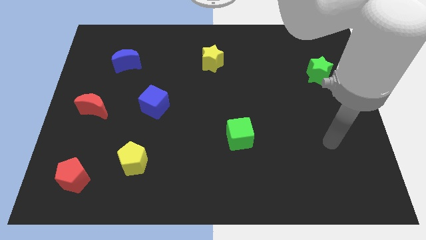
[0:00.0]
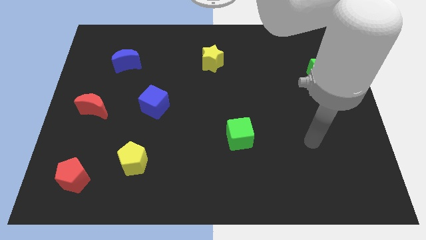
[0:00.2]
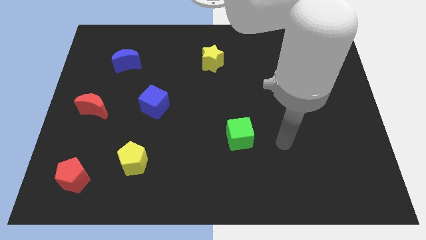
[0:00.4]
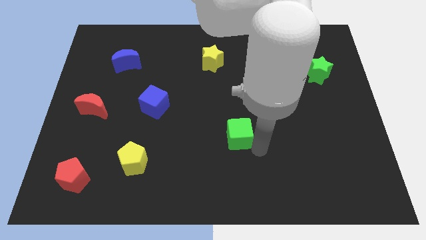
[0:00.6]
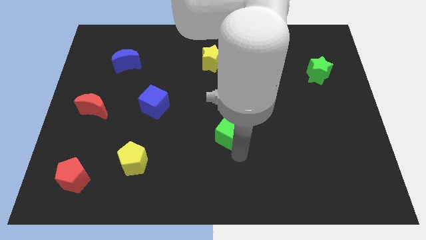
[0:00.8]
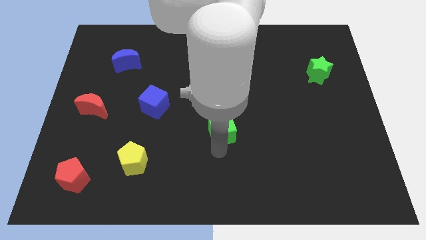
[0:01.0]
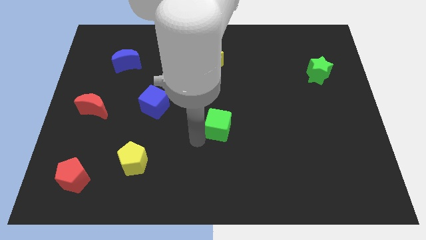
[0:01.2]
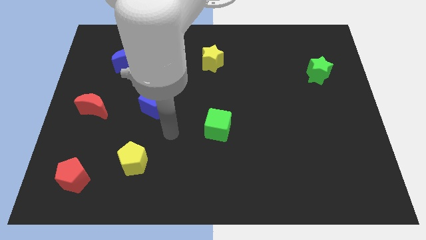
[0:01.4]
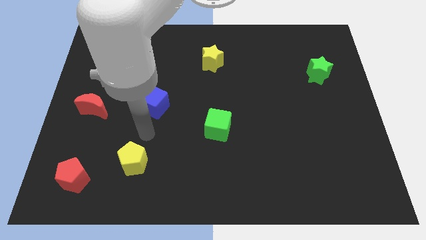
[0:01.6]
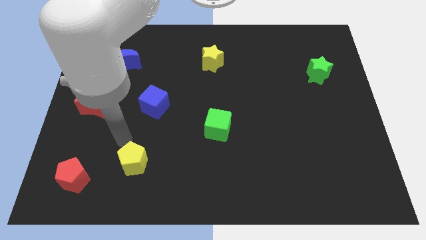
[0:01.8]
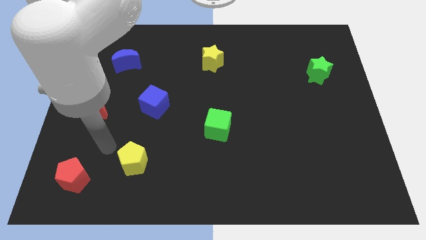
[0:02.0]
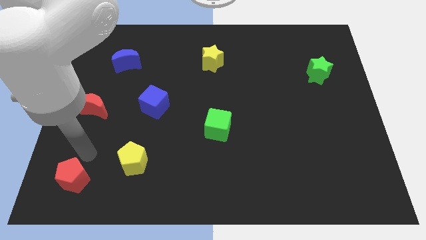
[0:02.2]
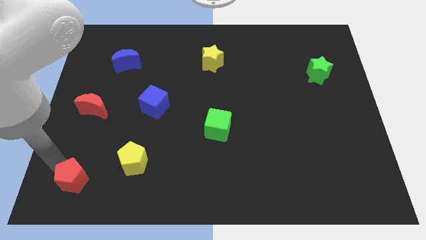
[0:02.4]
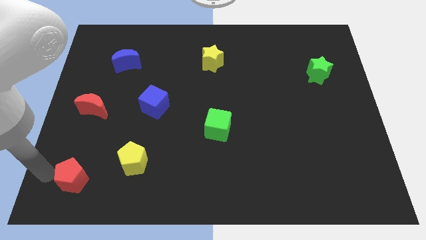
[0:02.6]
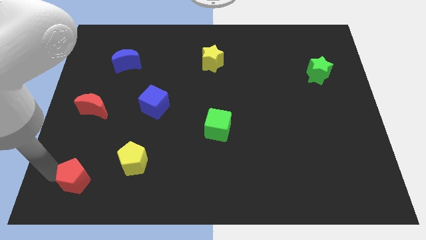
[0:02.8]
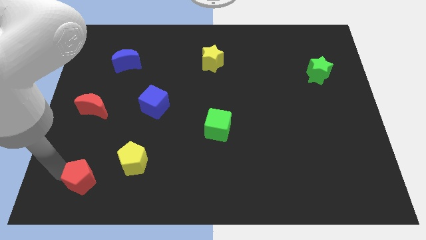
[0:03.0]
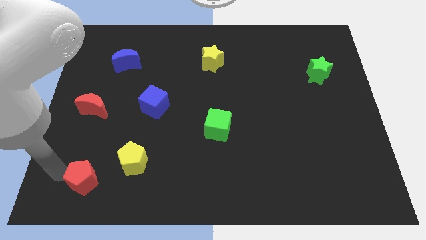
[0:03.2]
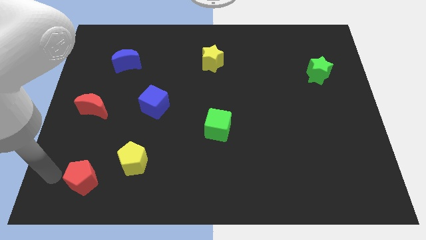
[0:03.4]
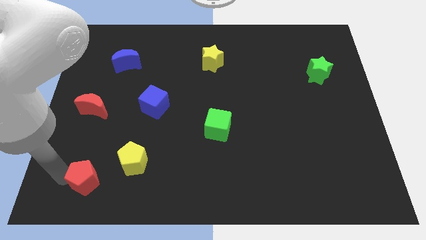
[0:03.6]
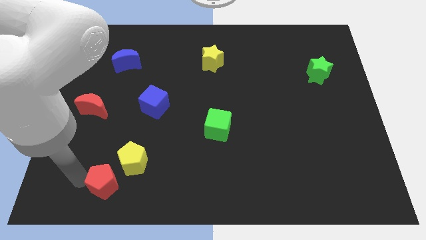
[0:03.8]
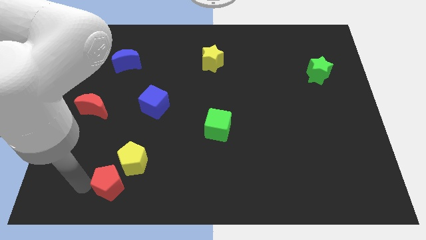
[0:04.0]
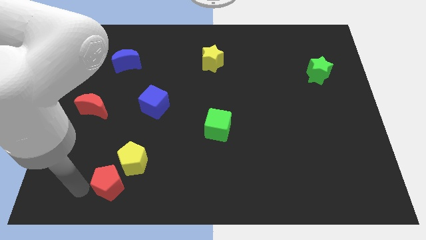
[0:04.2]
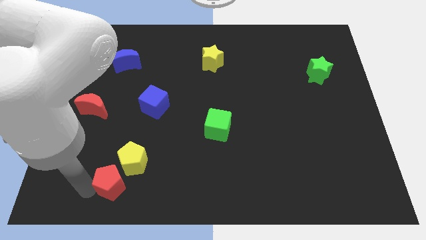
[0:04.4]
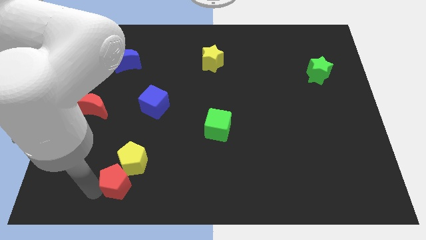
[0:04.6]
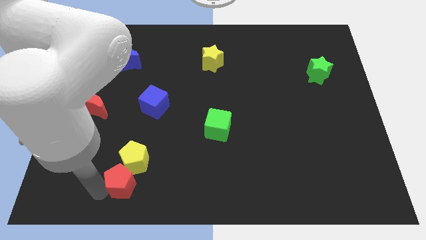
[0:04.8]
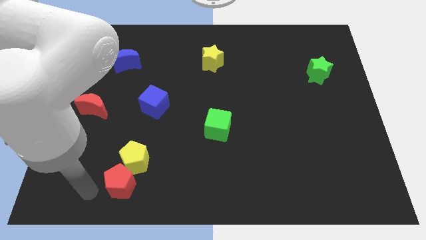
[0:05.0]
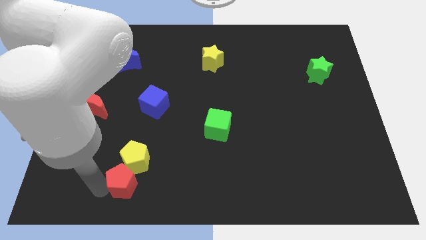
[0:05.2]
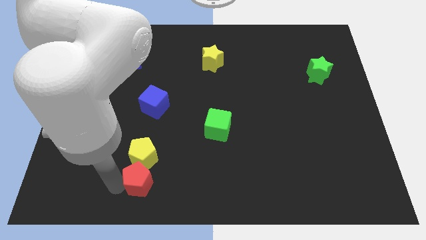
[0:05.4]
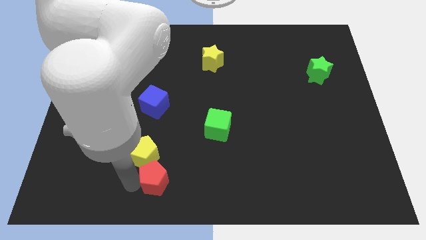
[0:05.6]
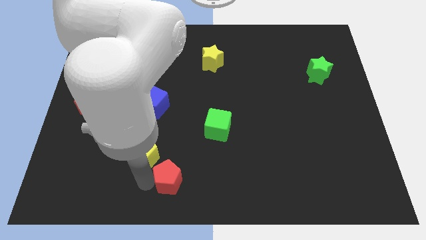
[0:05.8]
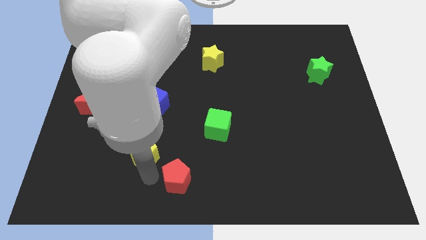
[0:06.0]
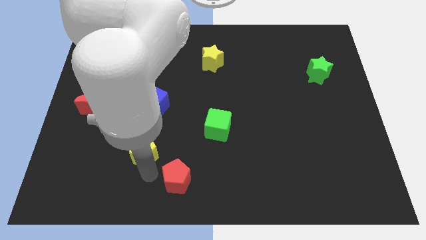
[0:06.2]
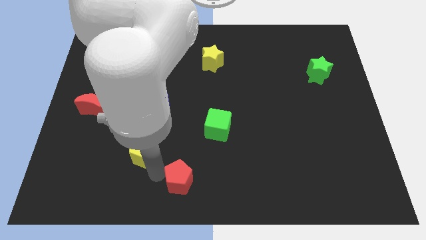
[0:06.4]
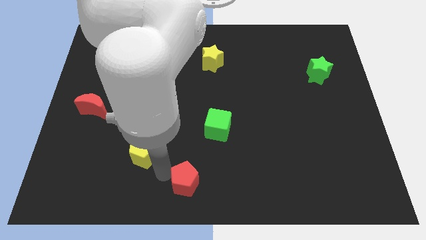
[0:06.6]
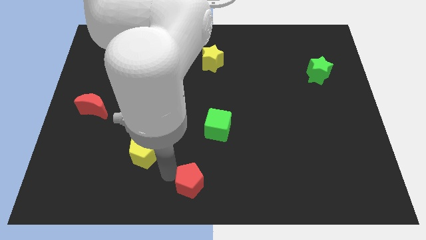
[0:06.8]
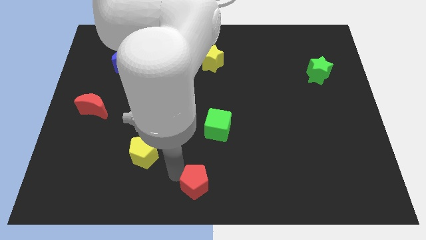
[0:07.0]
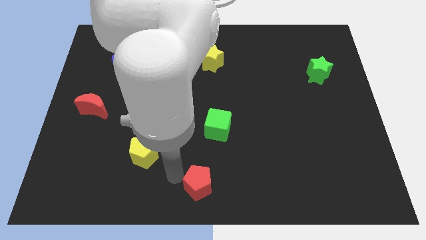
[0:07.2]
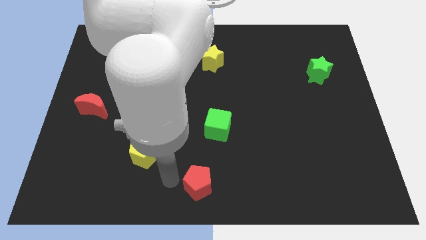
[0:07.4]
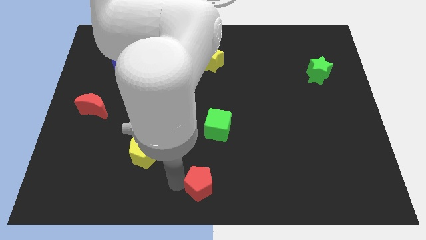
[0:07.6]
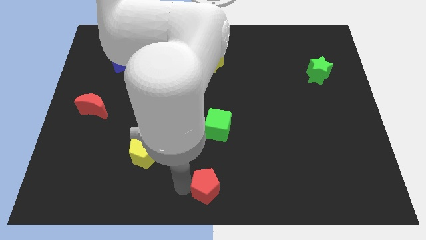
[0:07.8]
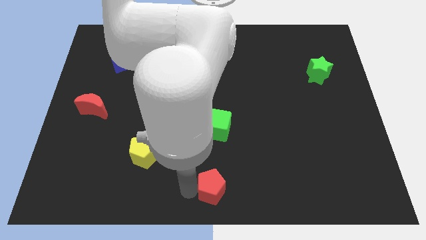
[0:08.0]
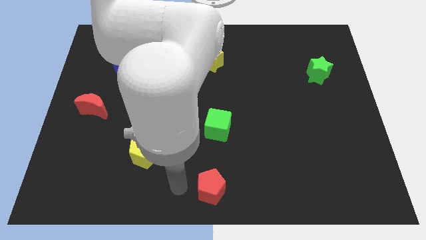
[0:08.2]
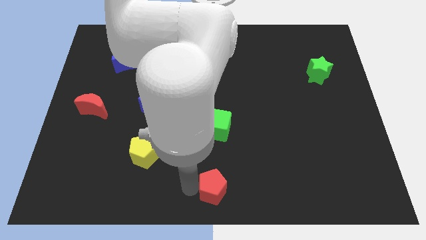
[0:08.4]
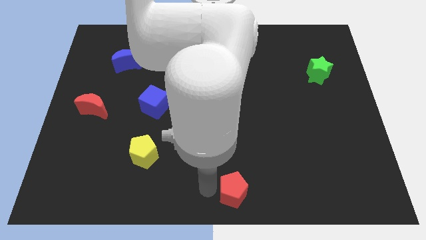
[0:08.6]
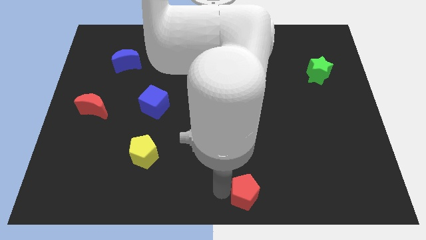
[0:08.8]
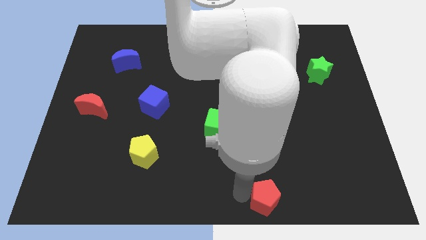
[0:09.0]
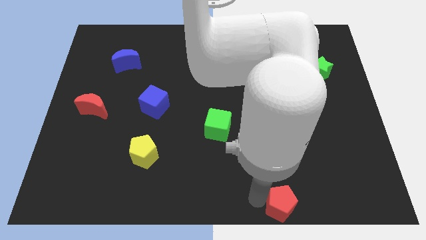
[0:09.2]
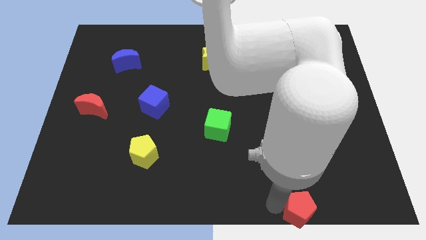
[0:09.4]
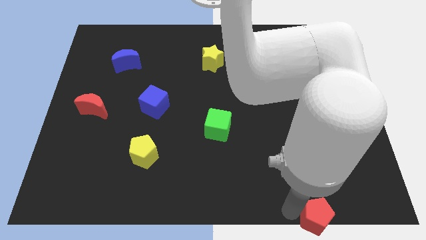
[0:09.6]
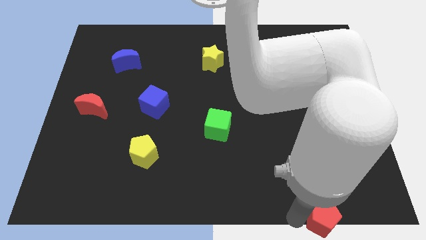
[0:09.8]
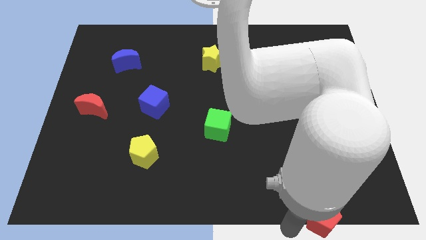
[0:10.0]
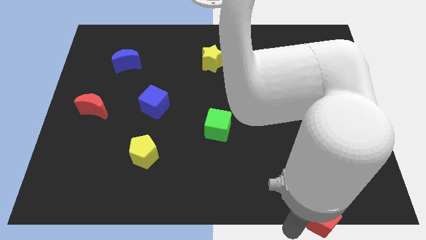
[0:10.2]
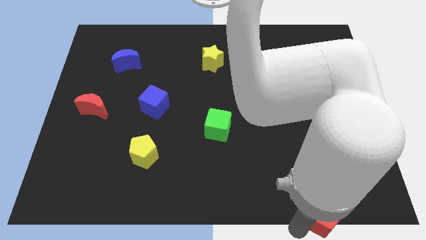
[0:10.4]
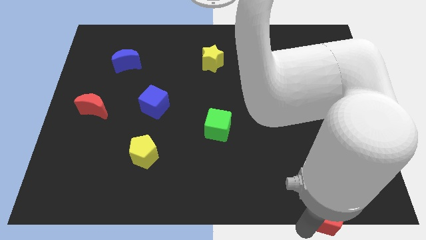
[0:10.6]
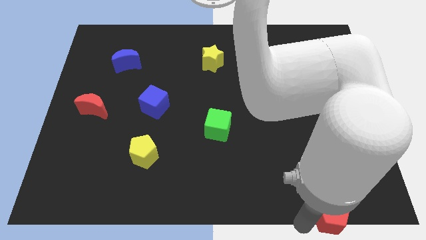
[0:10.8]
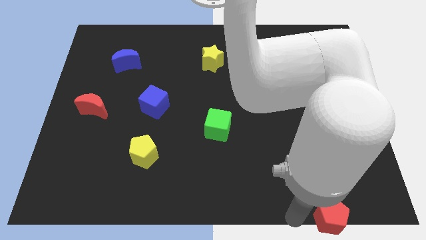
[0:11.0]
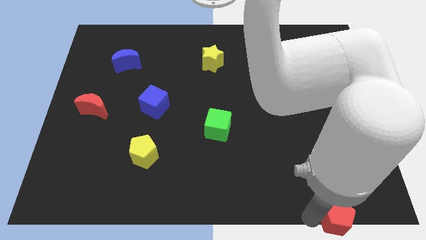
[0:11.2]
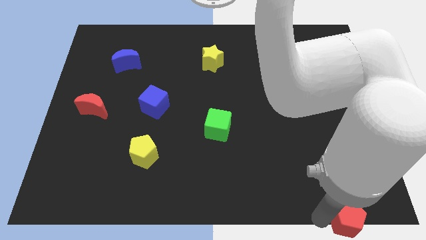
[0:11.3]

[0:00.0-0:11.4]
move the red pentagon to the bottom right

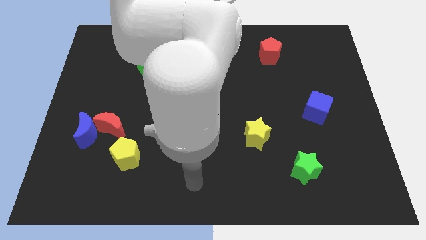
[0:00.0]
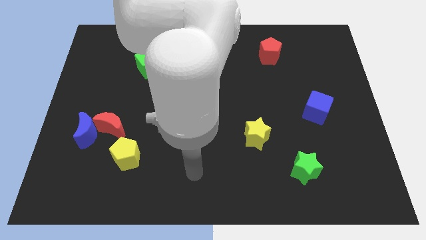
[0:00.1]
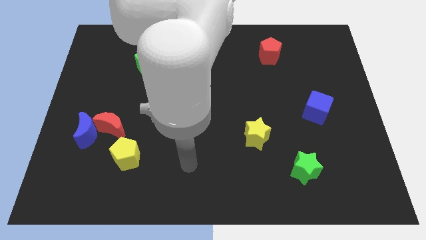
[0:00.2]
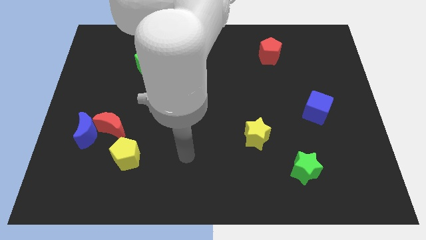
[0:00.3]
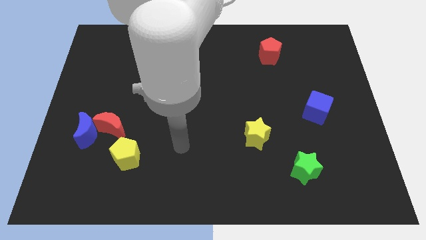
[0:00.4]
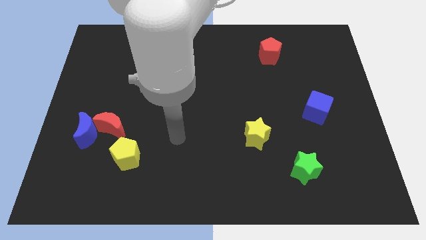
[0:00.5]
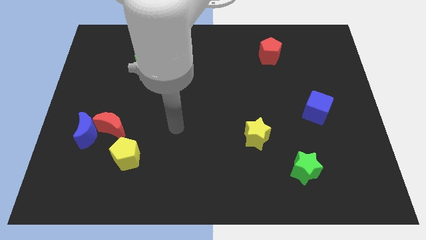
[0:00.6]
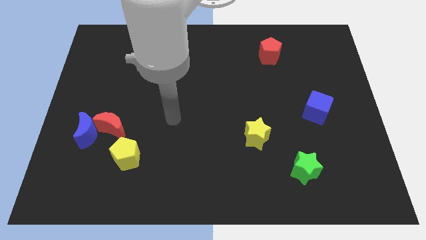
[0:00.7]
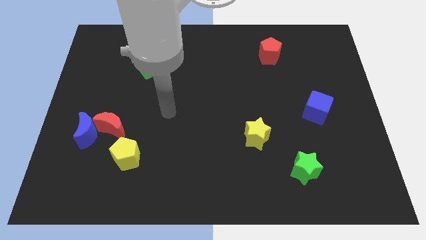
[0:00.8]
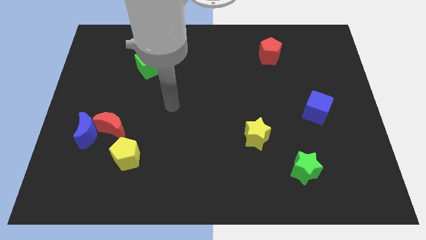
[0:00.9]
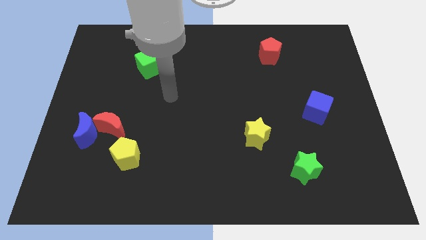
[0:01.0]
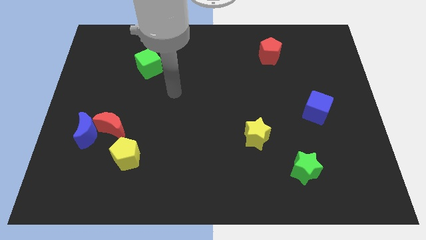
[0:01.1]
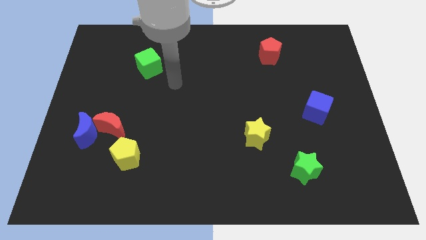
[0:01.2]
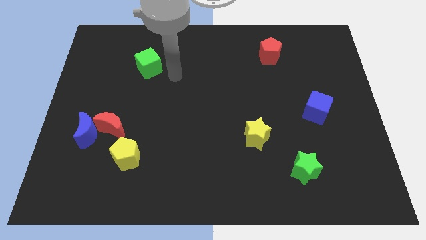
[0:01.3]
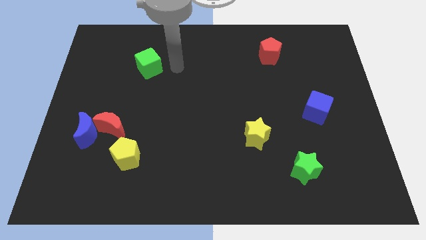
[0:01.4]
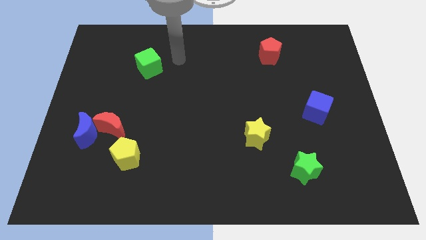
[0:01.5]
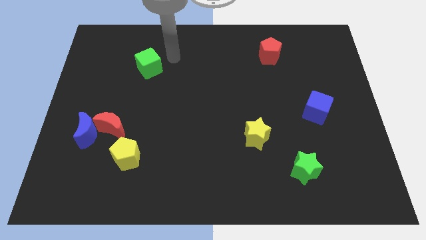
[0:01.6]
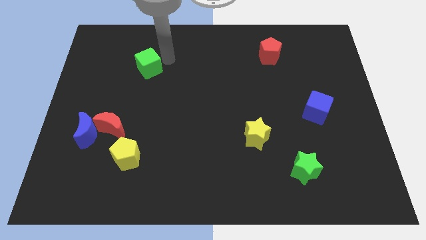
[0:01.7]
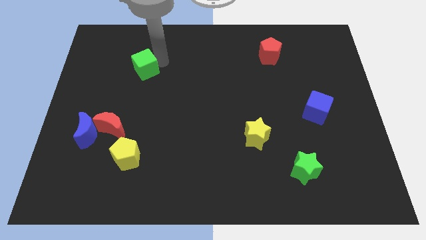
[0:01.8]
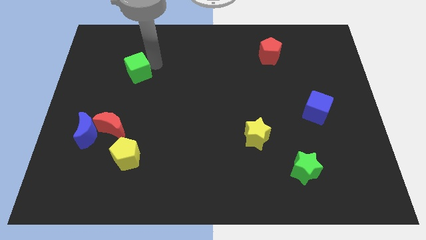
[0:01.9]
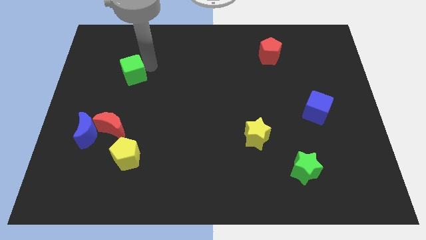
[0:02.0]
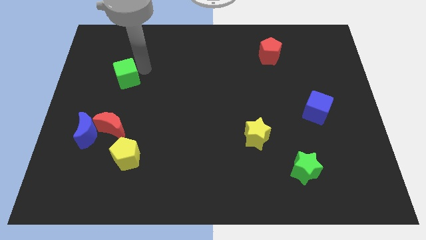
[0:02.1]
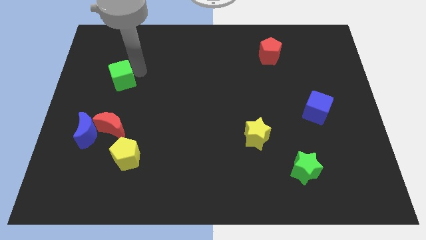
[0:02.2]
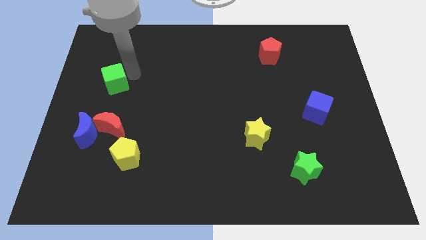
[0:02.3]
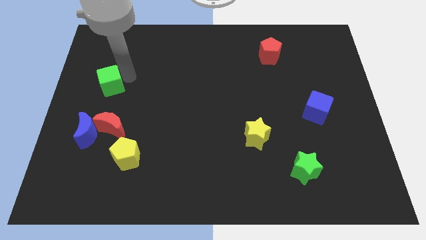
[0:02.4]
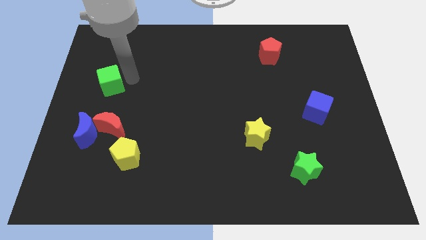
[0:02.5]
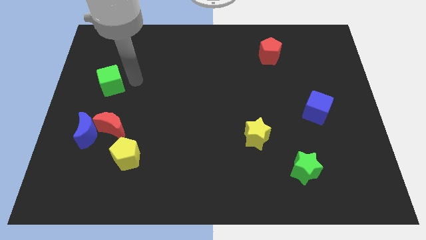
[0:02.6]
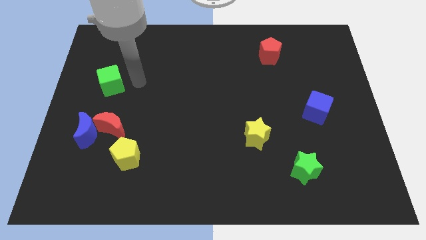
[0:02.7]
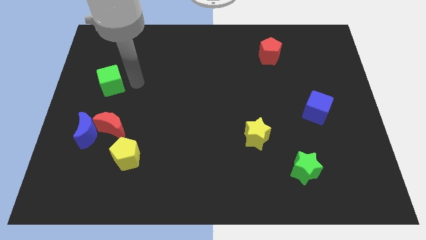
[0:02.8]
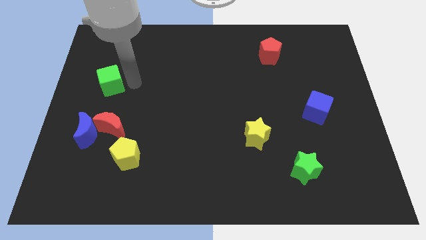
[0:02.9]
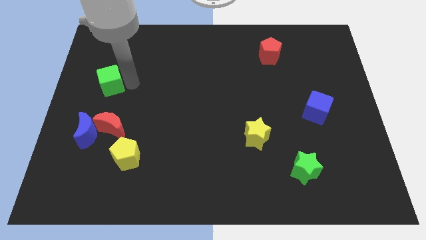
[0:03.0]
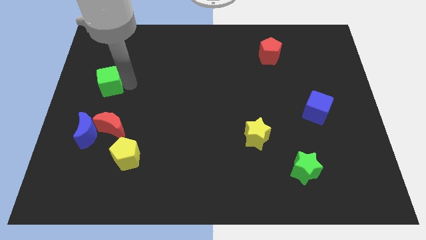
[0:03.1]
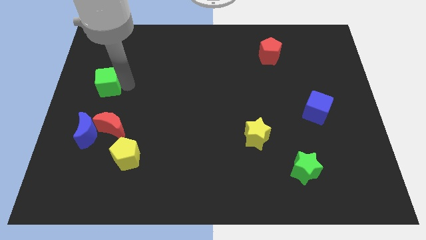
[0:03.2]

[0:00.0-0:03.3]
move the green cube to the left side of the board
